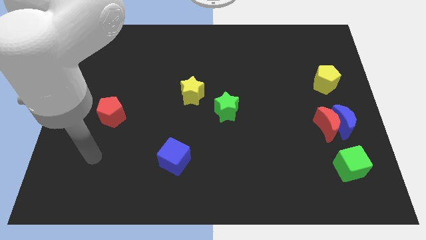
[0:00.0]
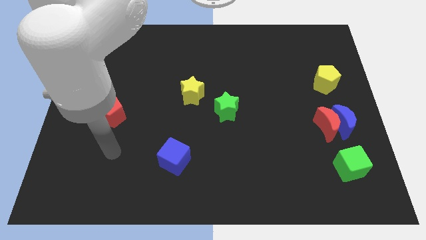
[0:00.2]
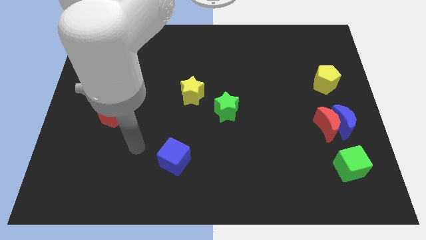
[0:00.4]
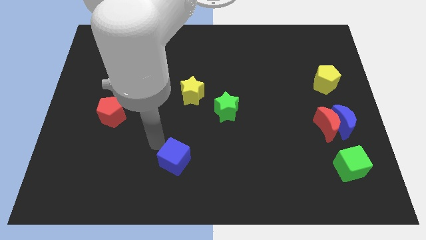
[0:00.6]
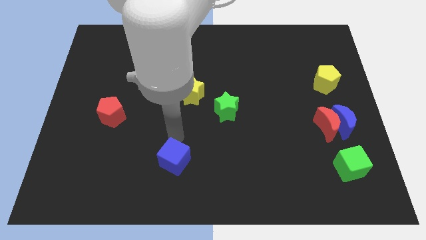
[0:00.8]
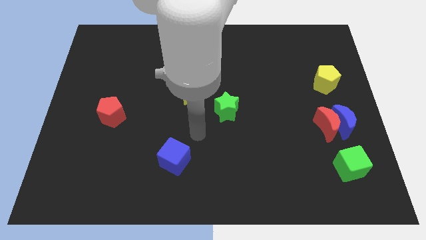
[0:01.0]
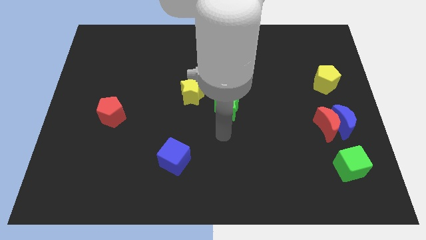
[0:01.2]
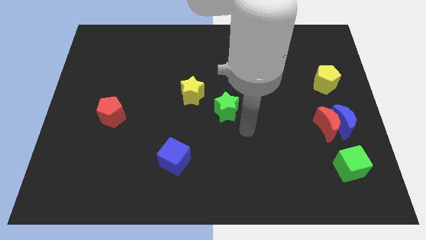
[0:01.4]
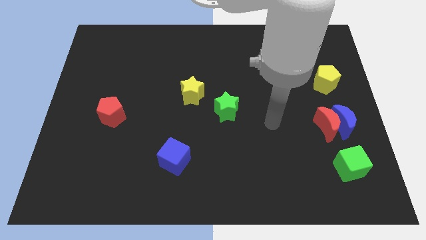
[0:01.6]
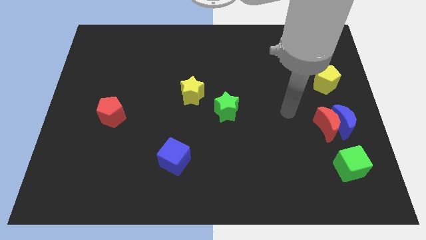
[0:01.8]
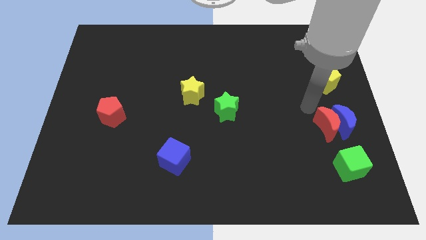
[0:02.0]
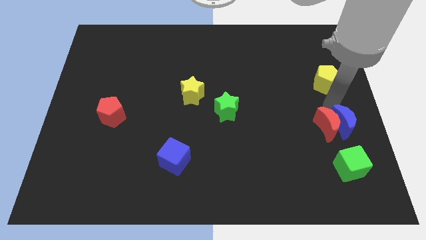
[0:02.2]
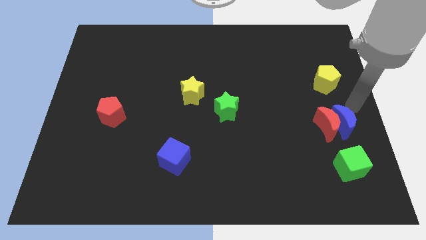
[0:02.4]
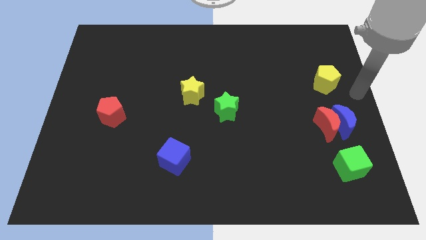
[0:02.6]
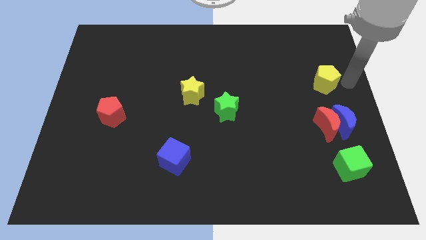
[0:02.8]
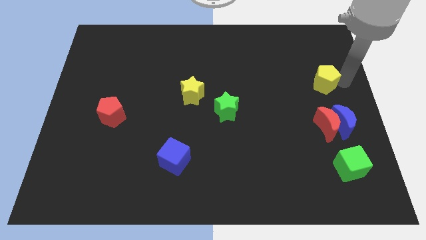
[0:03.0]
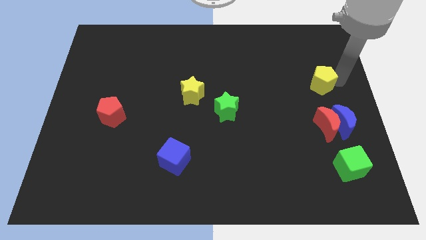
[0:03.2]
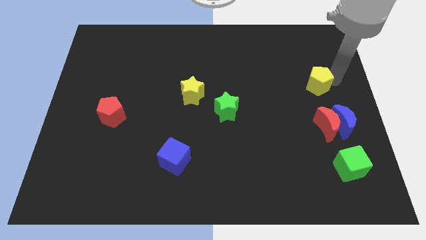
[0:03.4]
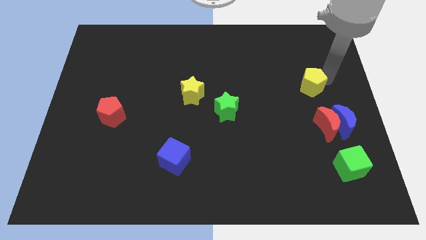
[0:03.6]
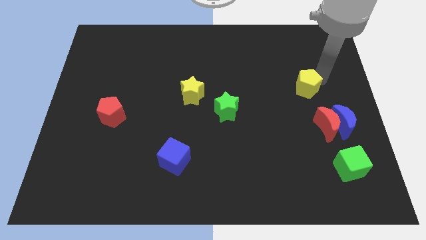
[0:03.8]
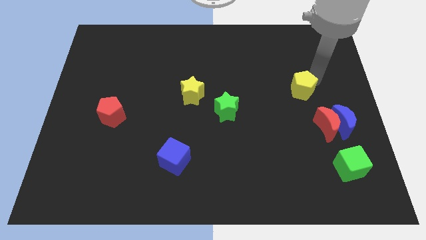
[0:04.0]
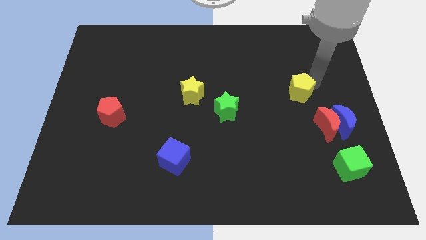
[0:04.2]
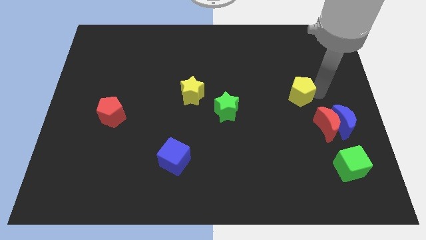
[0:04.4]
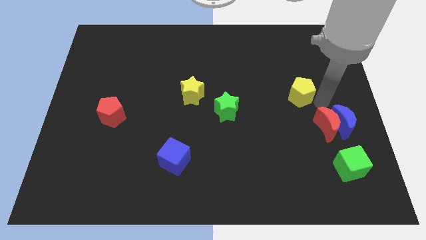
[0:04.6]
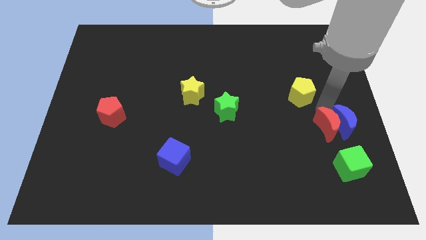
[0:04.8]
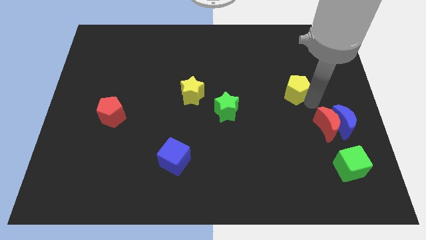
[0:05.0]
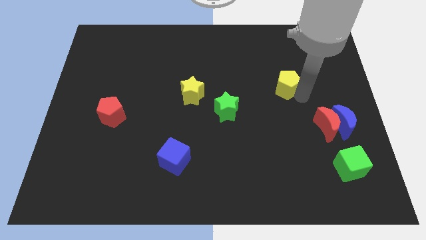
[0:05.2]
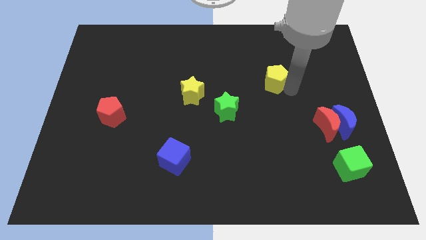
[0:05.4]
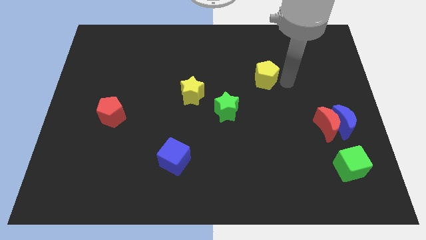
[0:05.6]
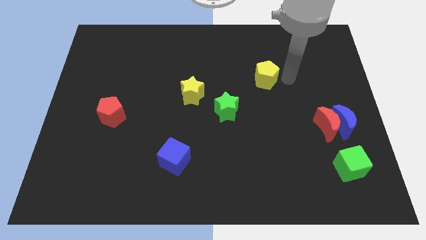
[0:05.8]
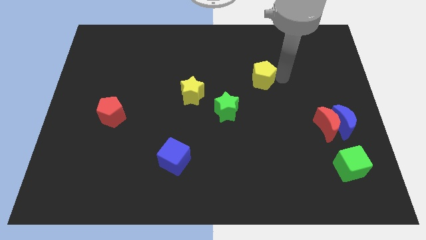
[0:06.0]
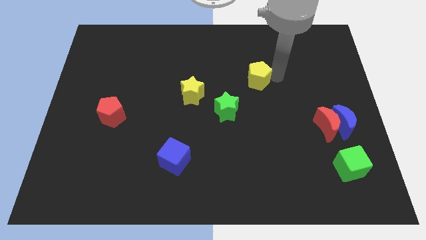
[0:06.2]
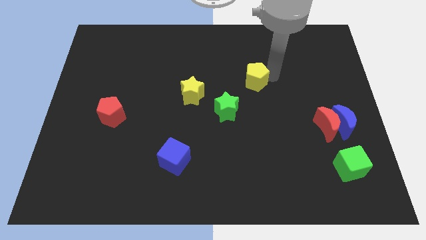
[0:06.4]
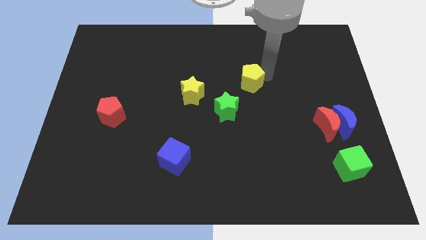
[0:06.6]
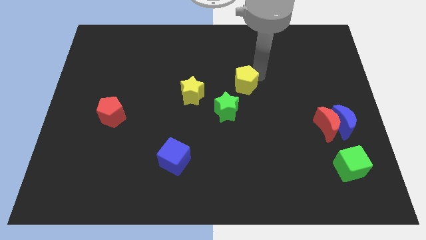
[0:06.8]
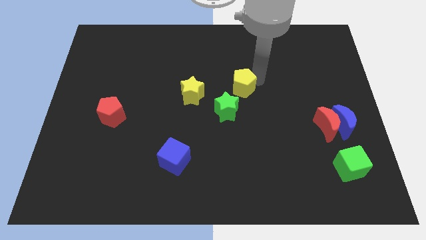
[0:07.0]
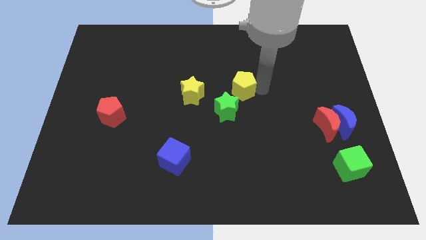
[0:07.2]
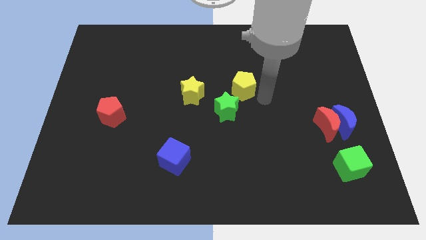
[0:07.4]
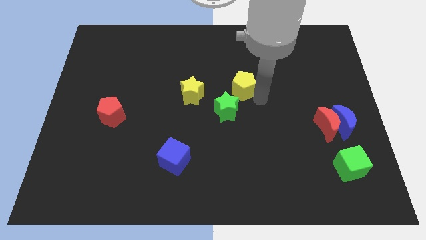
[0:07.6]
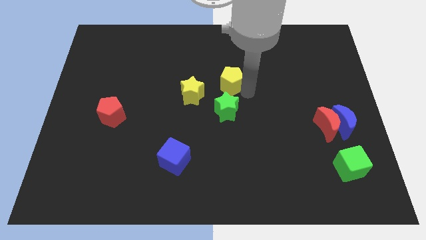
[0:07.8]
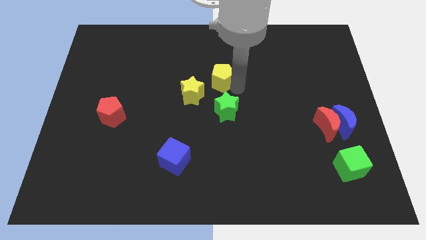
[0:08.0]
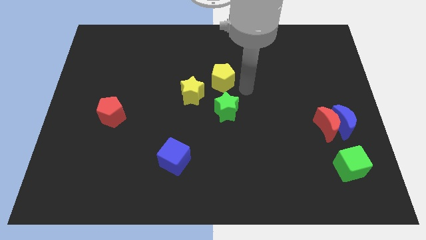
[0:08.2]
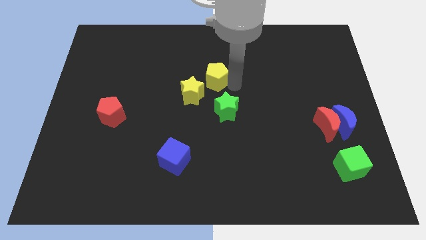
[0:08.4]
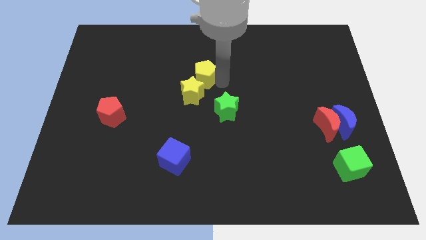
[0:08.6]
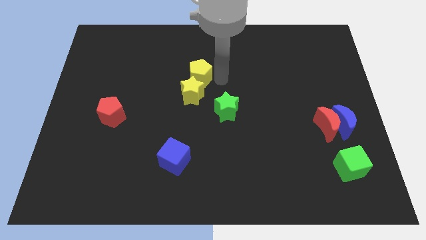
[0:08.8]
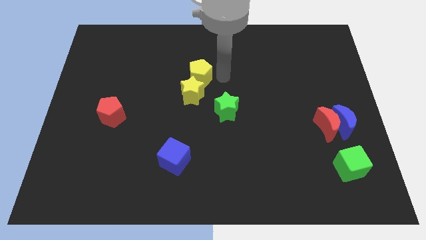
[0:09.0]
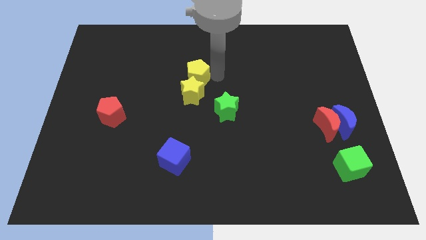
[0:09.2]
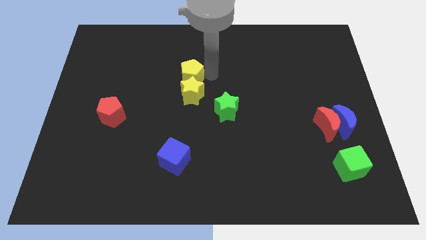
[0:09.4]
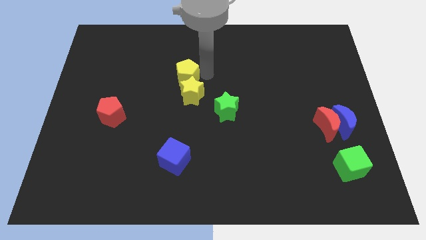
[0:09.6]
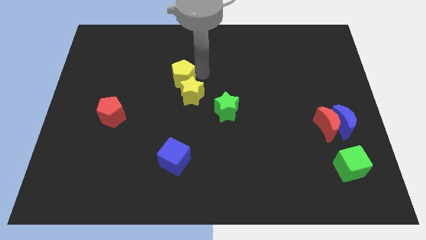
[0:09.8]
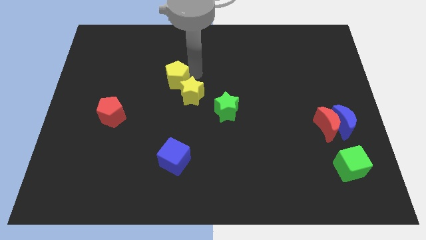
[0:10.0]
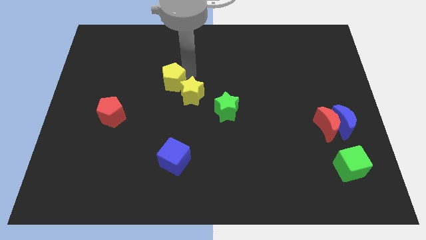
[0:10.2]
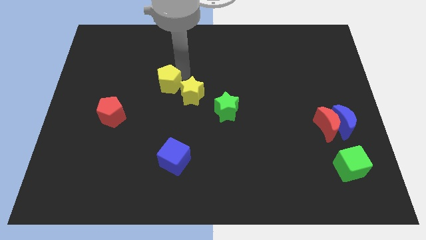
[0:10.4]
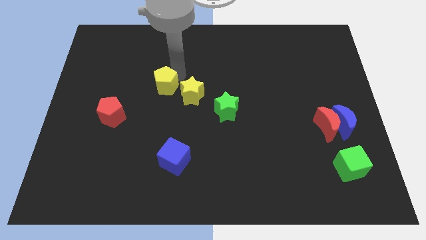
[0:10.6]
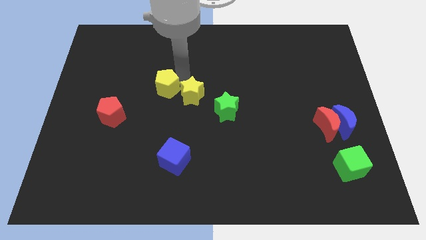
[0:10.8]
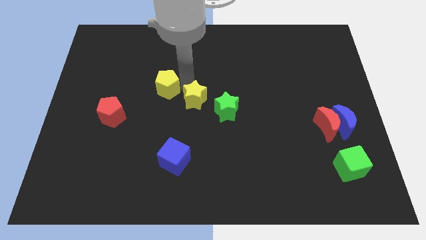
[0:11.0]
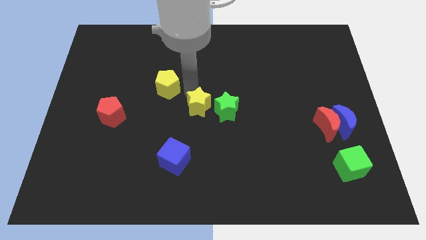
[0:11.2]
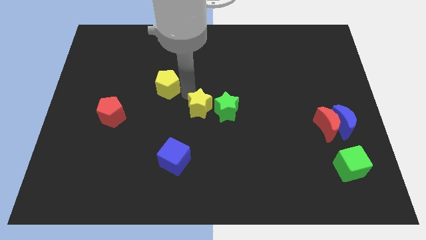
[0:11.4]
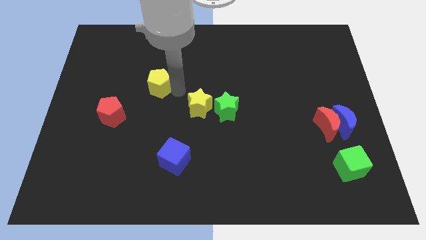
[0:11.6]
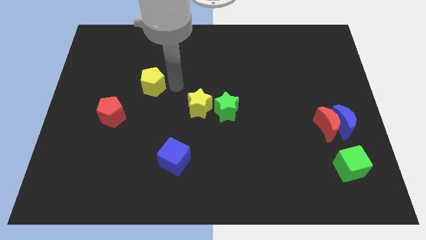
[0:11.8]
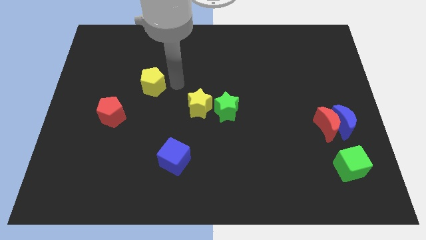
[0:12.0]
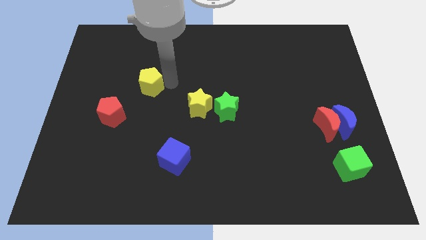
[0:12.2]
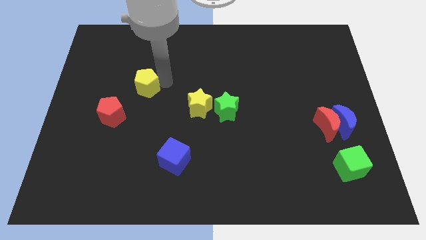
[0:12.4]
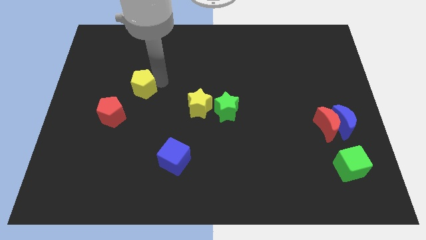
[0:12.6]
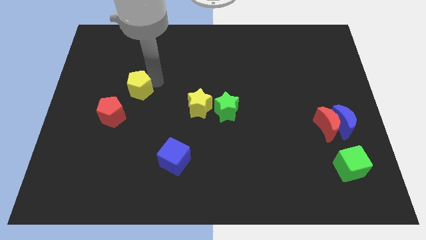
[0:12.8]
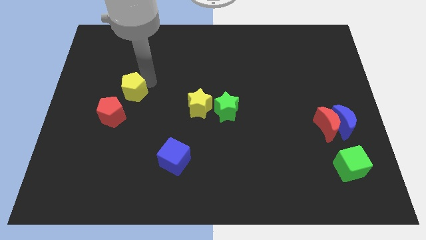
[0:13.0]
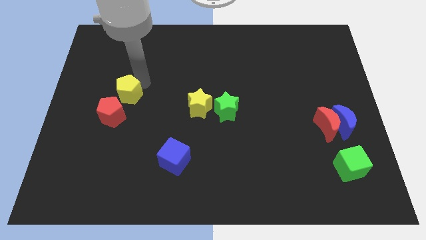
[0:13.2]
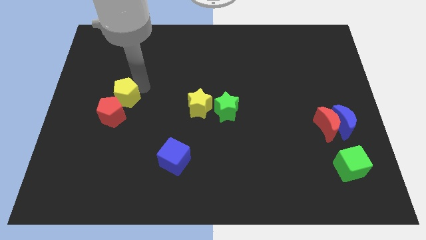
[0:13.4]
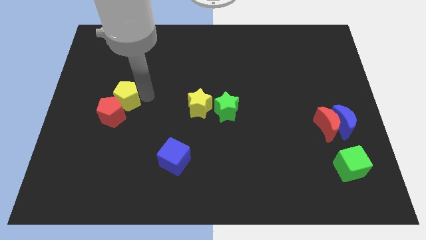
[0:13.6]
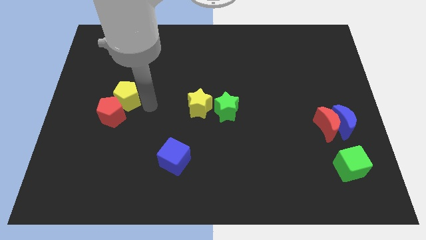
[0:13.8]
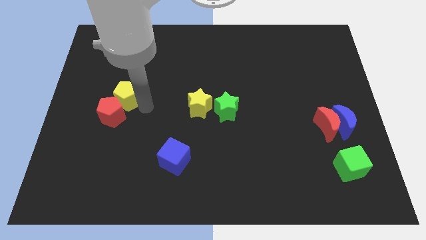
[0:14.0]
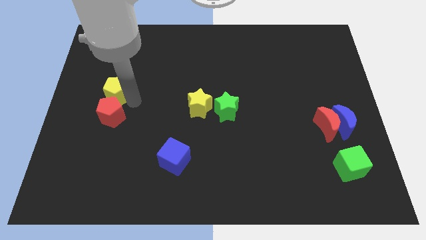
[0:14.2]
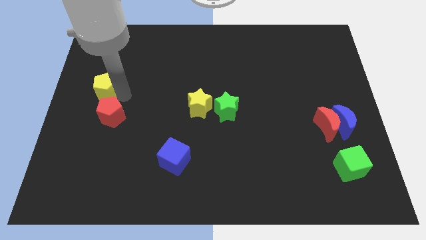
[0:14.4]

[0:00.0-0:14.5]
move the yellow pentagon to the left side of the board
